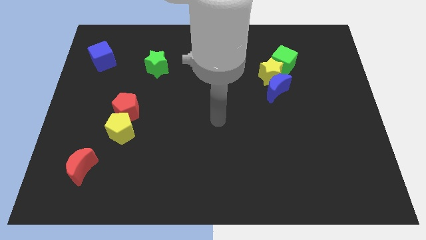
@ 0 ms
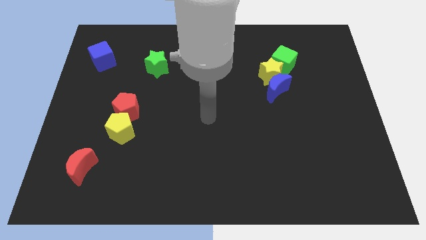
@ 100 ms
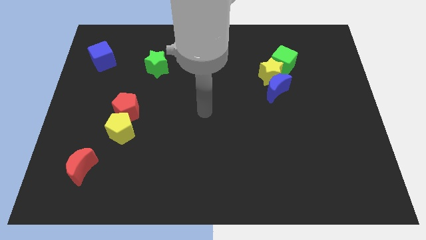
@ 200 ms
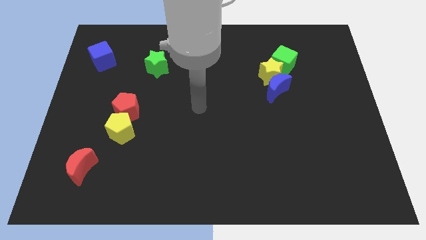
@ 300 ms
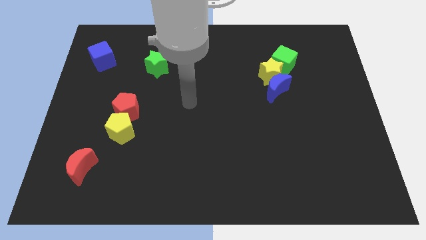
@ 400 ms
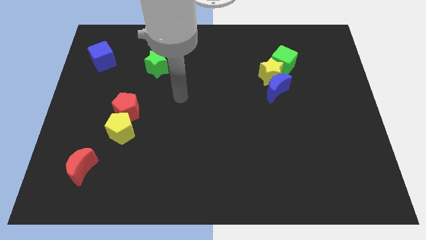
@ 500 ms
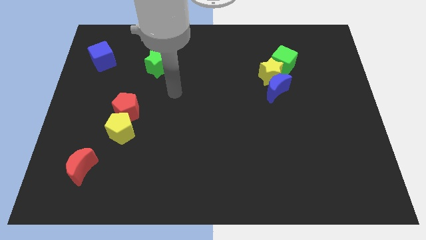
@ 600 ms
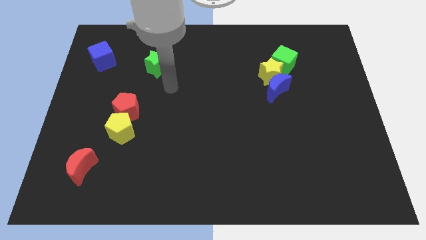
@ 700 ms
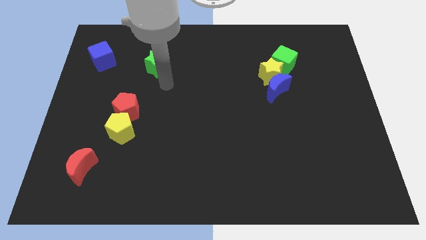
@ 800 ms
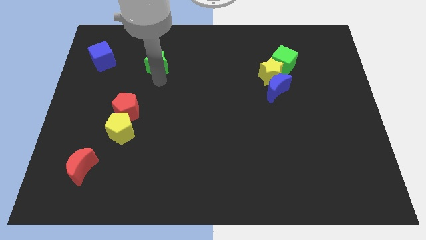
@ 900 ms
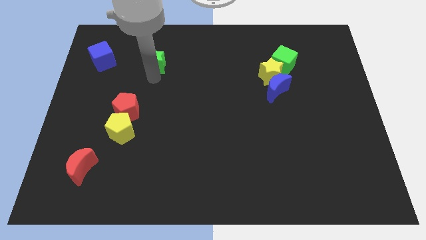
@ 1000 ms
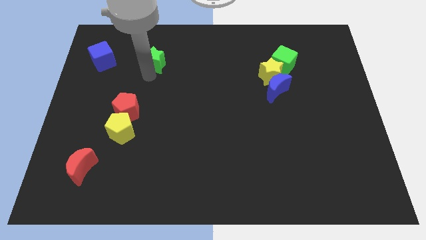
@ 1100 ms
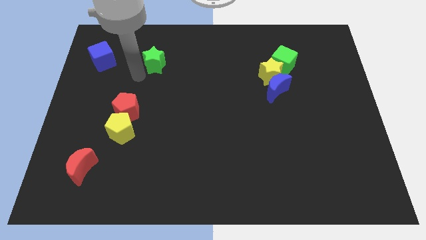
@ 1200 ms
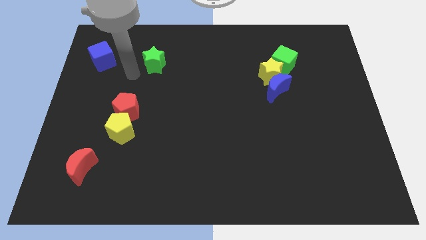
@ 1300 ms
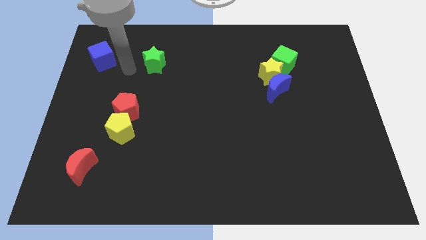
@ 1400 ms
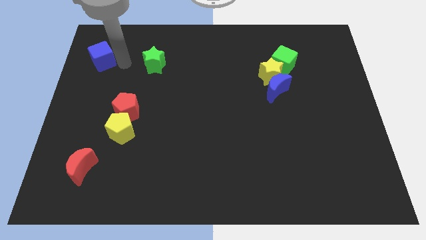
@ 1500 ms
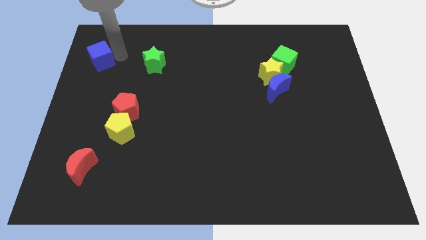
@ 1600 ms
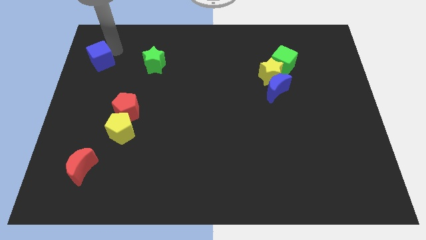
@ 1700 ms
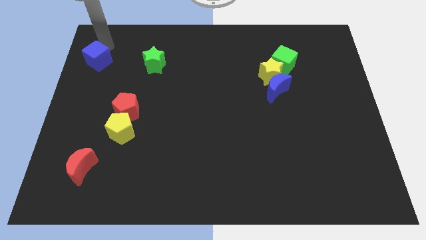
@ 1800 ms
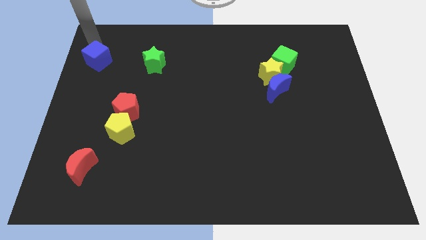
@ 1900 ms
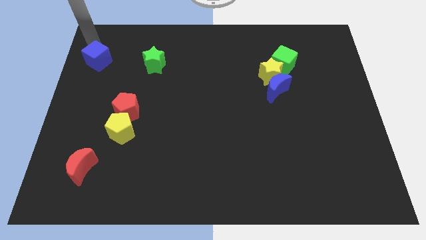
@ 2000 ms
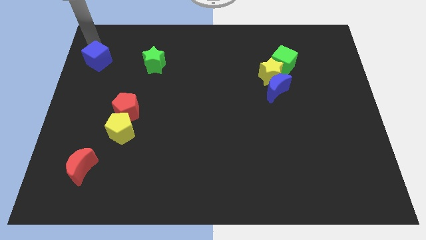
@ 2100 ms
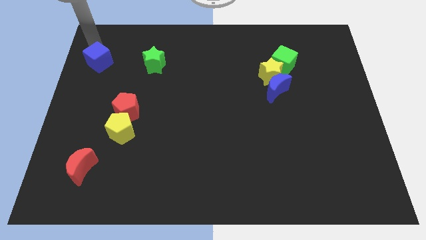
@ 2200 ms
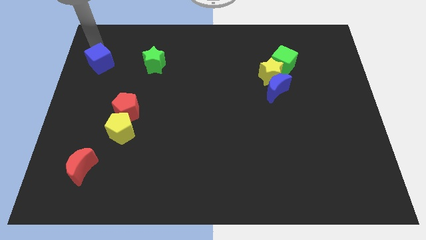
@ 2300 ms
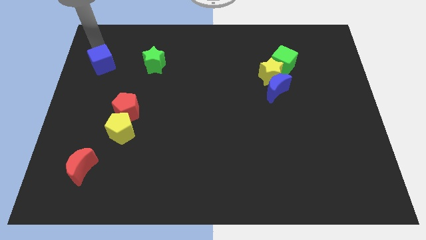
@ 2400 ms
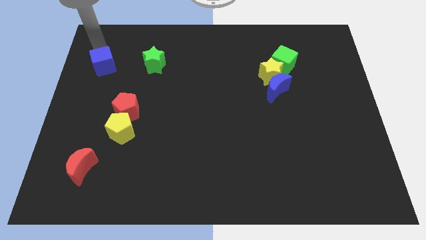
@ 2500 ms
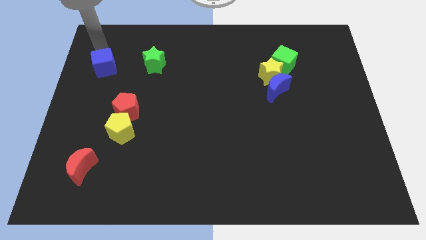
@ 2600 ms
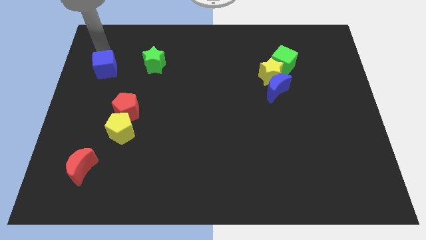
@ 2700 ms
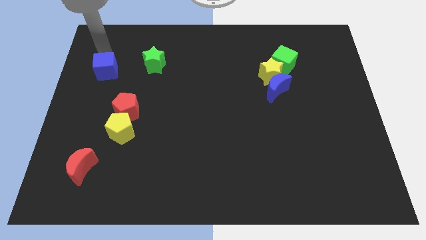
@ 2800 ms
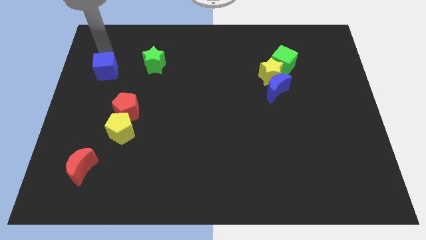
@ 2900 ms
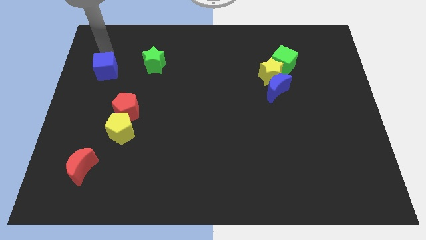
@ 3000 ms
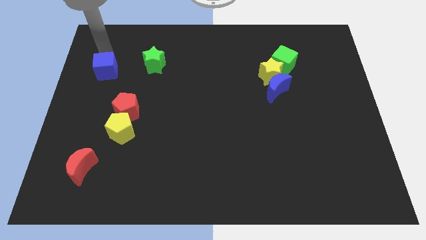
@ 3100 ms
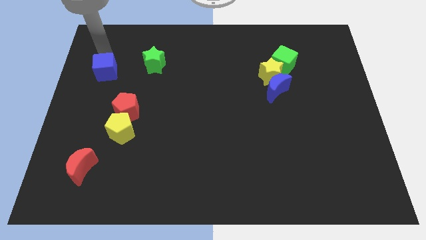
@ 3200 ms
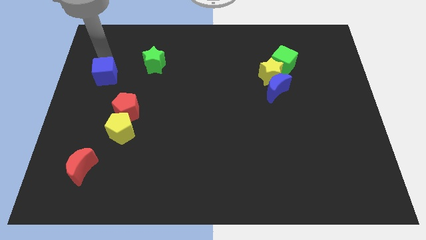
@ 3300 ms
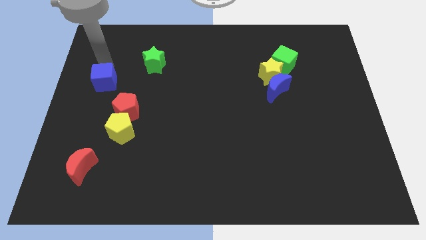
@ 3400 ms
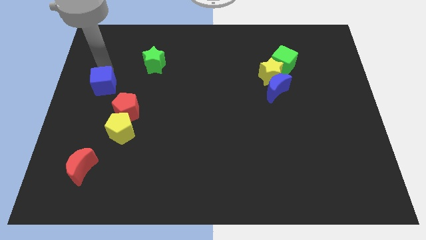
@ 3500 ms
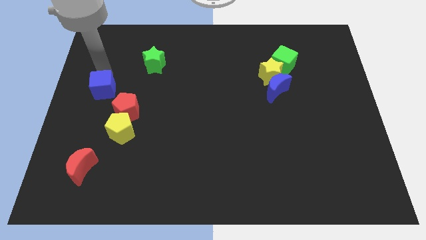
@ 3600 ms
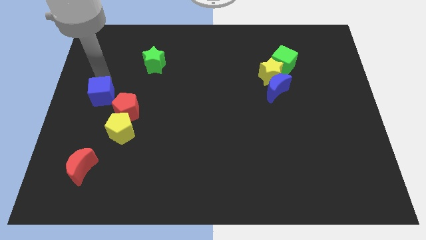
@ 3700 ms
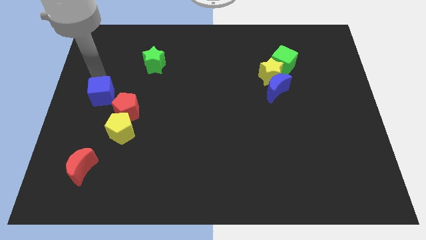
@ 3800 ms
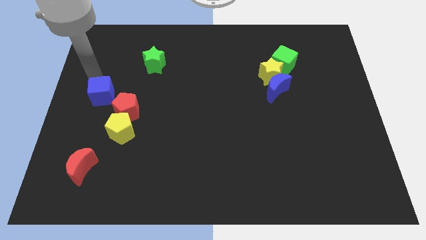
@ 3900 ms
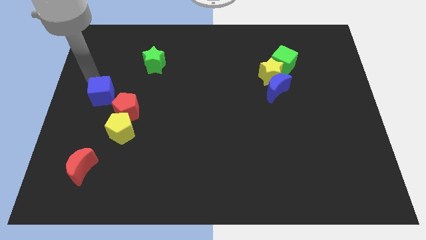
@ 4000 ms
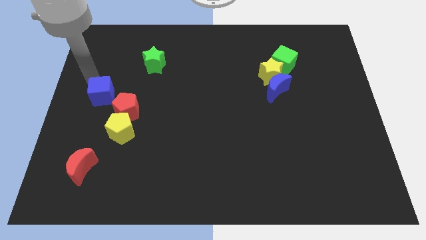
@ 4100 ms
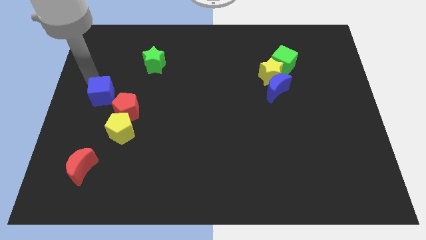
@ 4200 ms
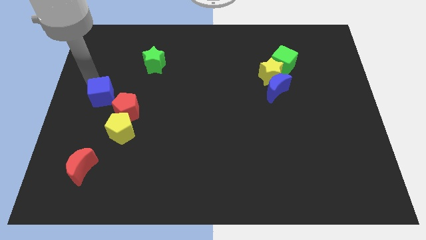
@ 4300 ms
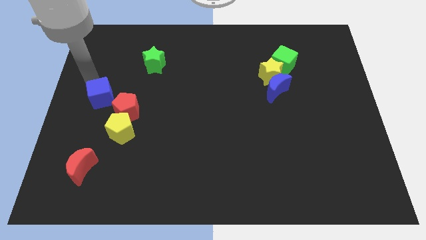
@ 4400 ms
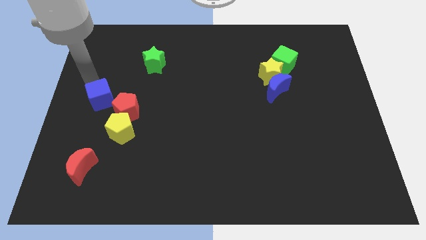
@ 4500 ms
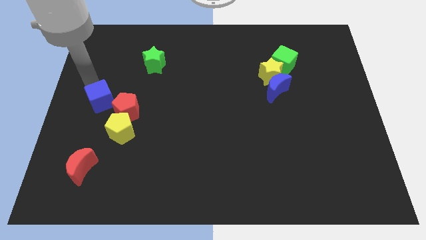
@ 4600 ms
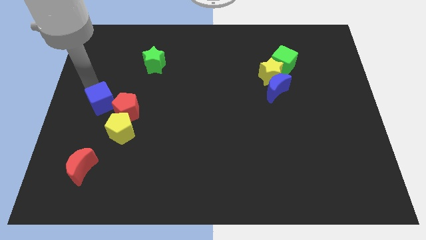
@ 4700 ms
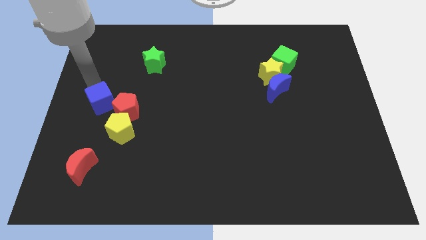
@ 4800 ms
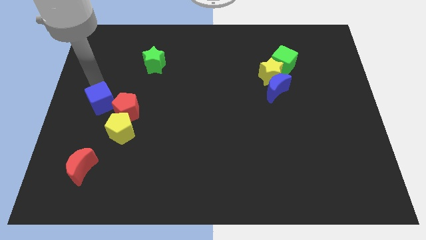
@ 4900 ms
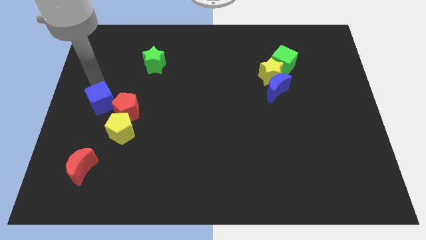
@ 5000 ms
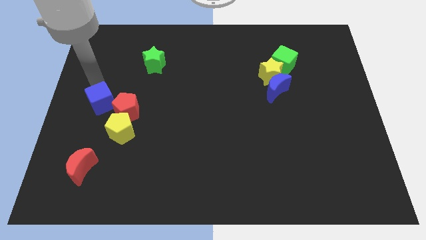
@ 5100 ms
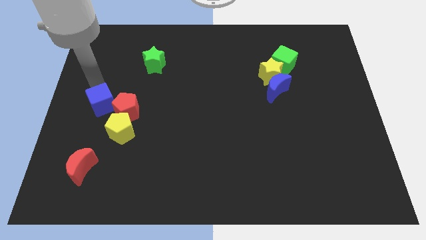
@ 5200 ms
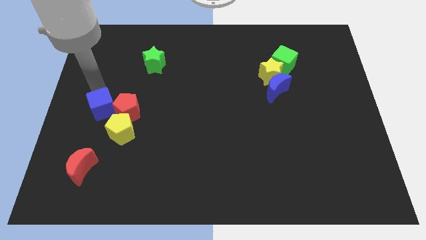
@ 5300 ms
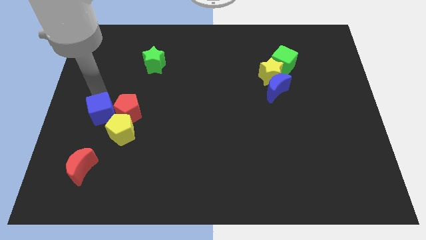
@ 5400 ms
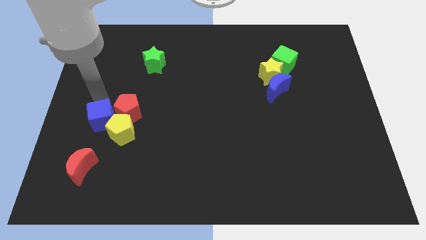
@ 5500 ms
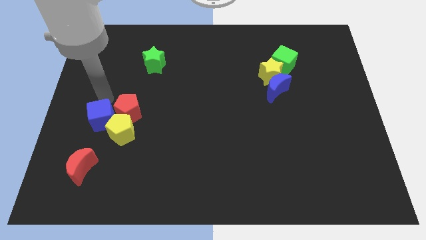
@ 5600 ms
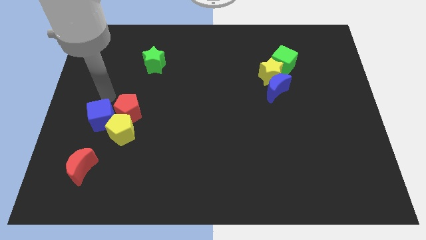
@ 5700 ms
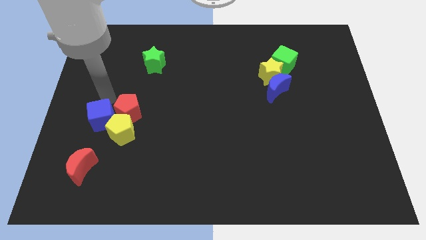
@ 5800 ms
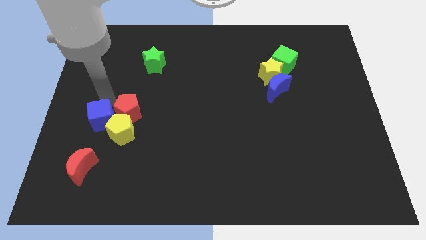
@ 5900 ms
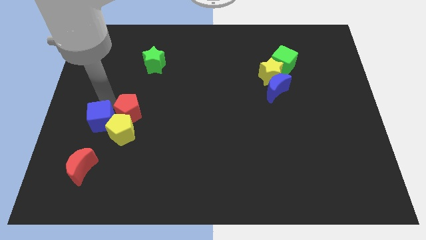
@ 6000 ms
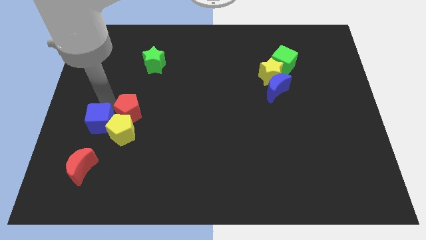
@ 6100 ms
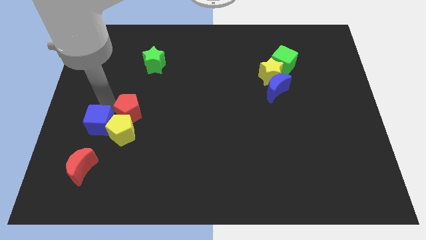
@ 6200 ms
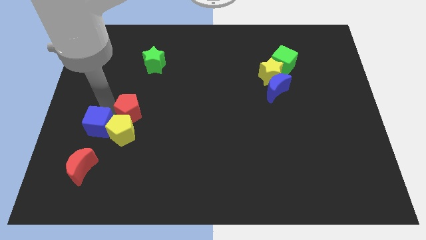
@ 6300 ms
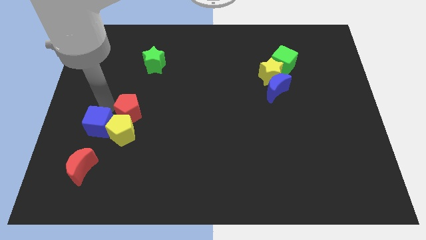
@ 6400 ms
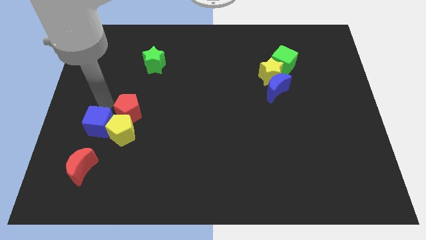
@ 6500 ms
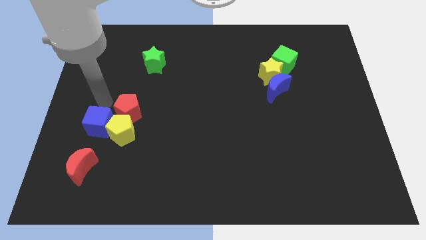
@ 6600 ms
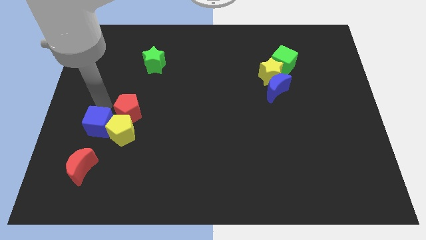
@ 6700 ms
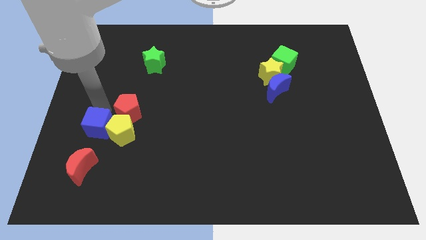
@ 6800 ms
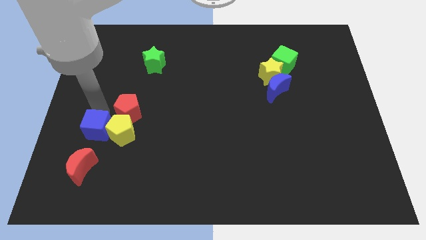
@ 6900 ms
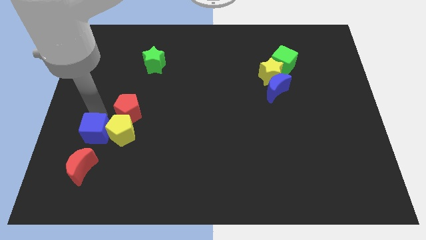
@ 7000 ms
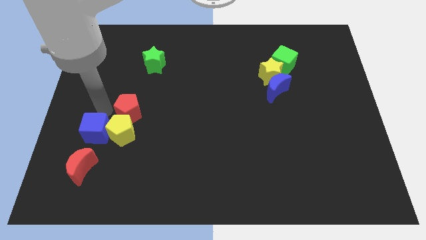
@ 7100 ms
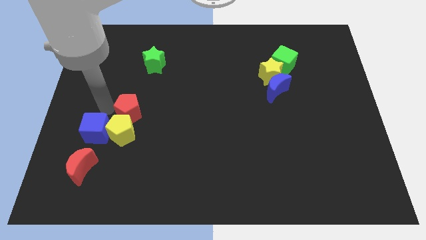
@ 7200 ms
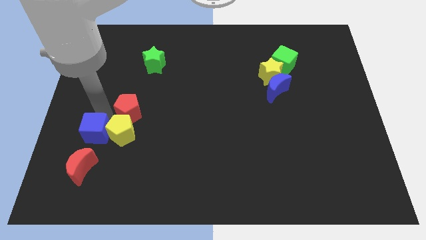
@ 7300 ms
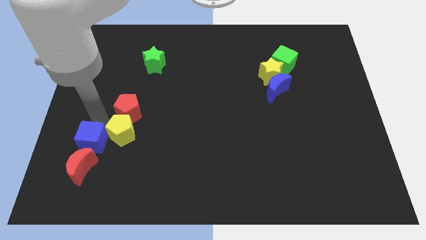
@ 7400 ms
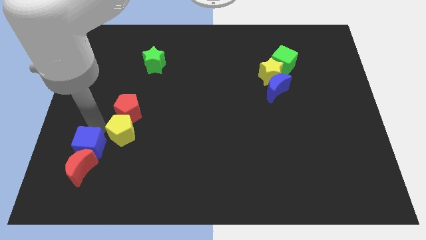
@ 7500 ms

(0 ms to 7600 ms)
move the blue cube close to the red moon
